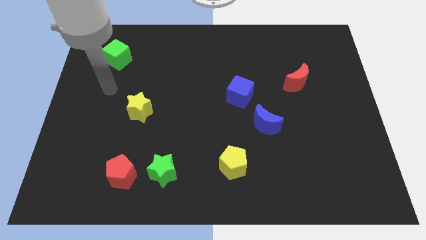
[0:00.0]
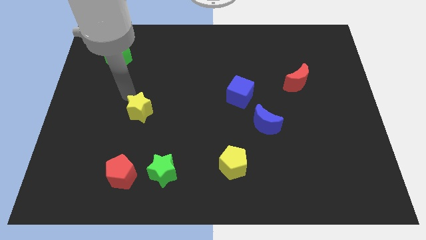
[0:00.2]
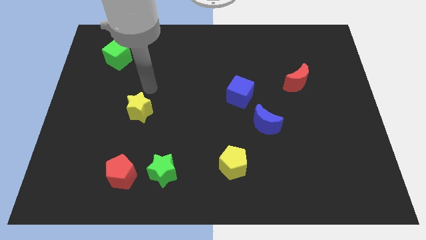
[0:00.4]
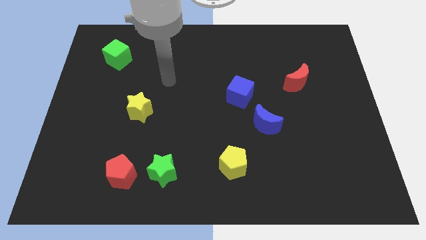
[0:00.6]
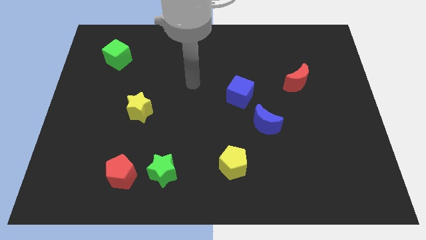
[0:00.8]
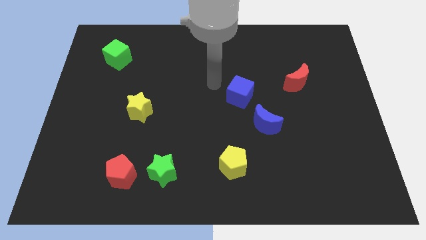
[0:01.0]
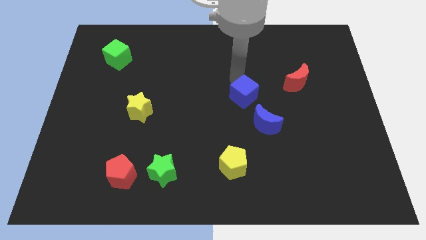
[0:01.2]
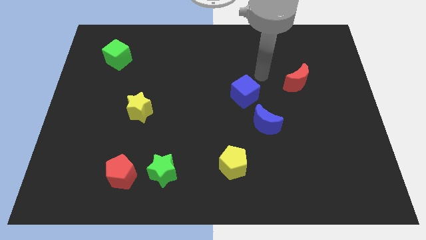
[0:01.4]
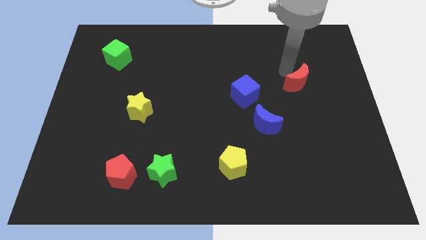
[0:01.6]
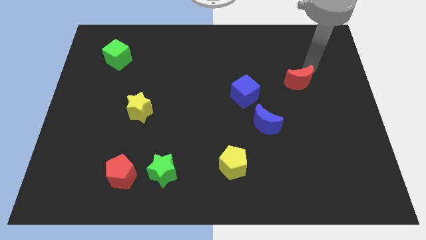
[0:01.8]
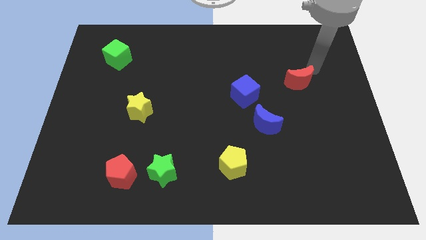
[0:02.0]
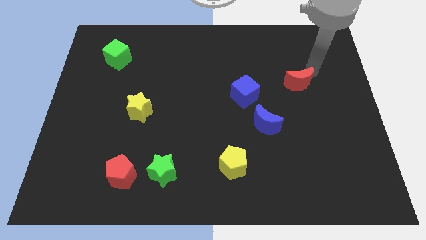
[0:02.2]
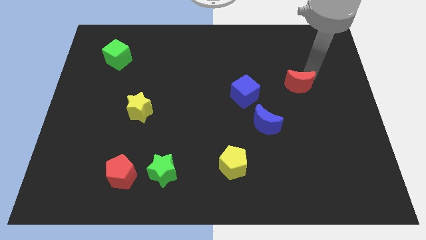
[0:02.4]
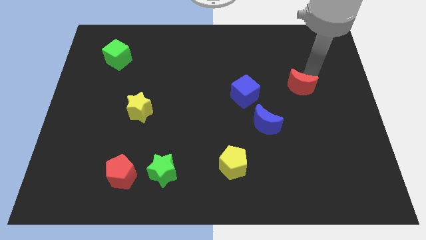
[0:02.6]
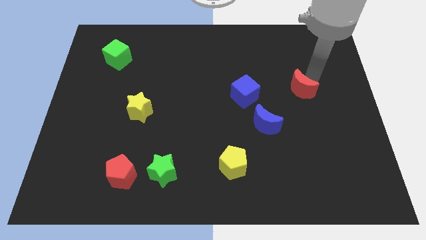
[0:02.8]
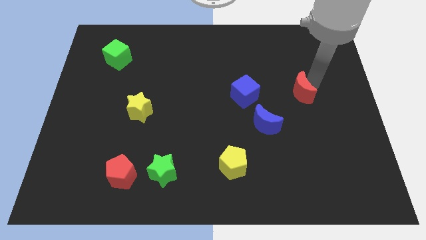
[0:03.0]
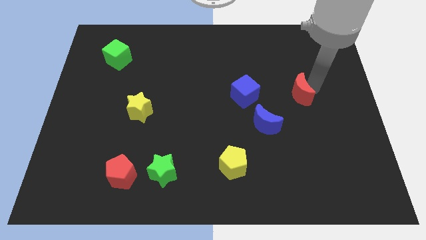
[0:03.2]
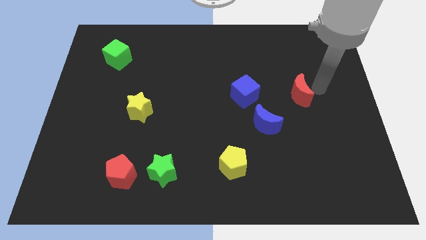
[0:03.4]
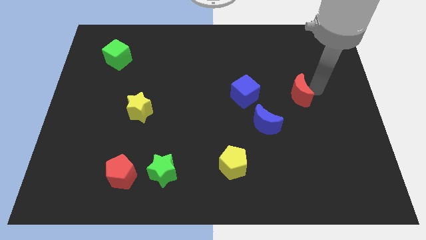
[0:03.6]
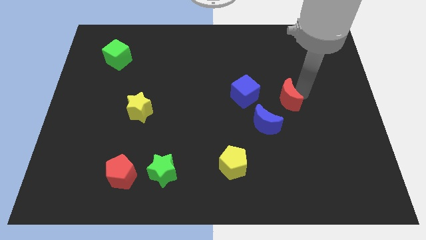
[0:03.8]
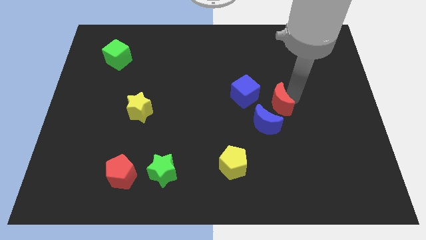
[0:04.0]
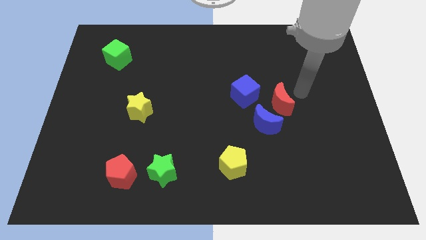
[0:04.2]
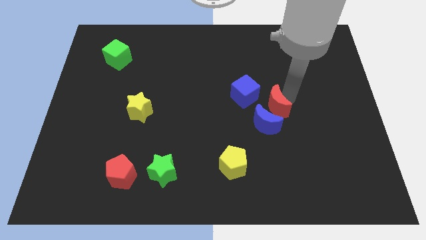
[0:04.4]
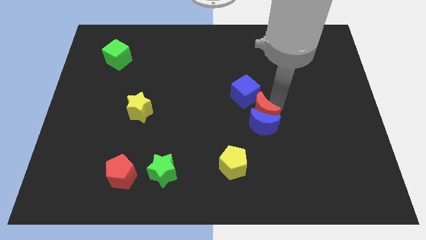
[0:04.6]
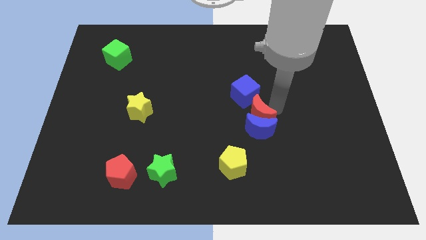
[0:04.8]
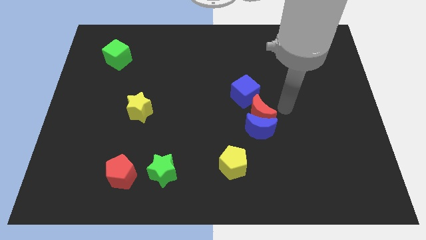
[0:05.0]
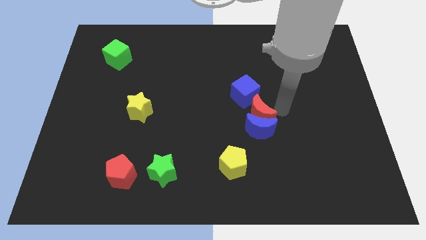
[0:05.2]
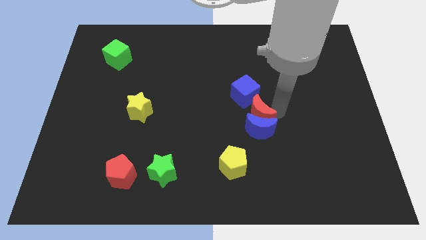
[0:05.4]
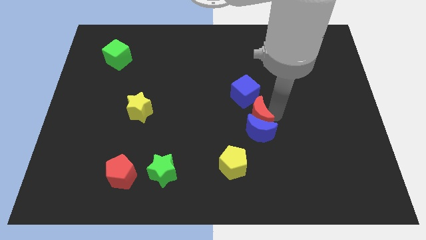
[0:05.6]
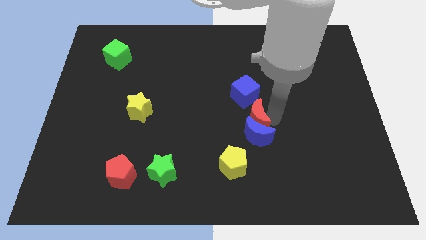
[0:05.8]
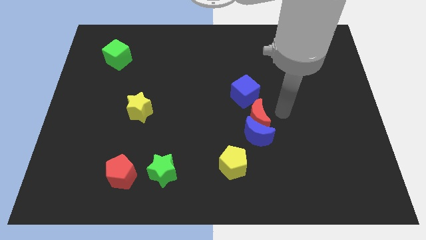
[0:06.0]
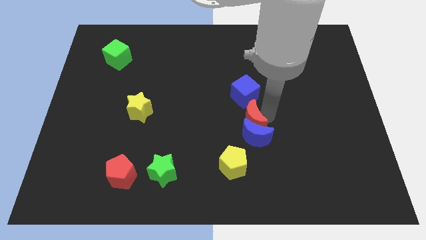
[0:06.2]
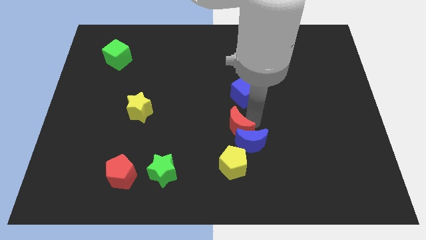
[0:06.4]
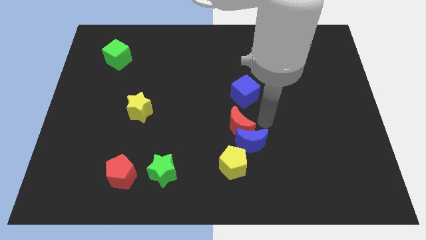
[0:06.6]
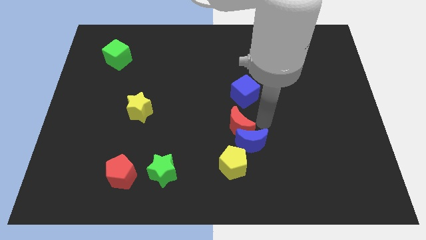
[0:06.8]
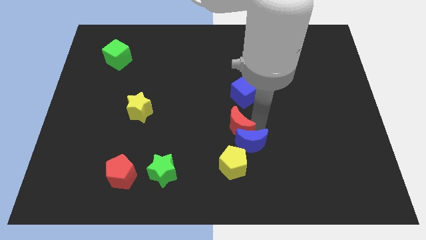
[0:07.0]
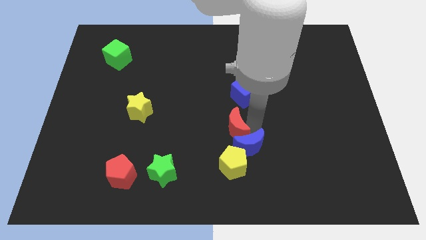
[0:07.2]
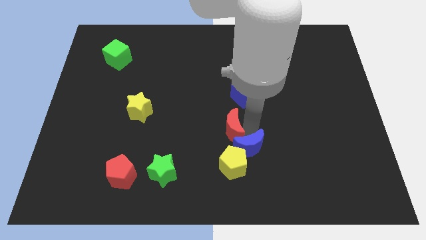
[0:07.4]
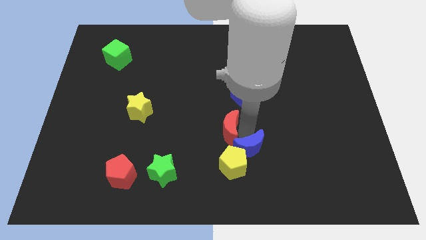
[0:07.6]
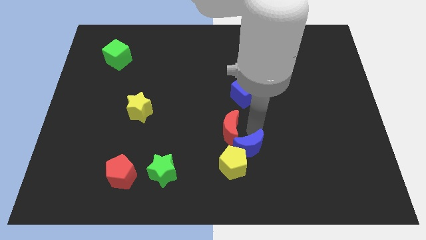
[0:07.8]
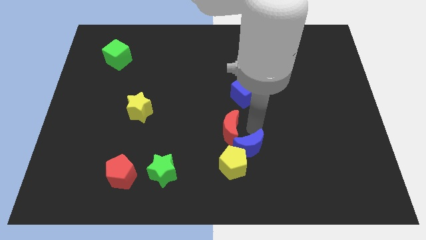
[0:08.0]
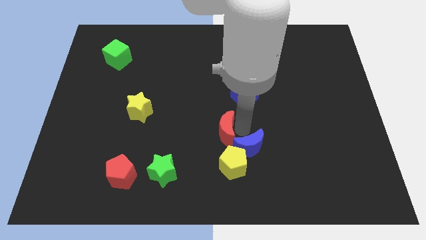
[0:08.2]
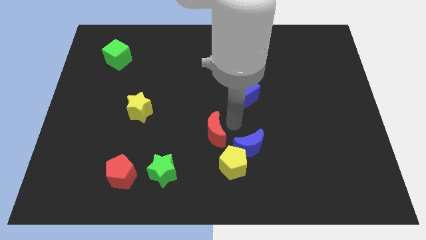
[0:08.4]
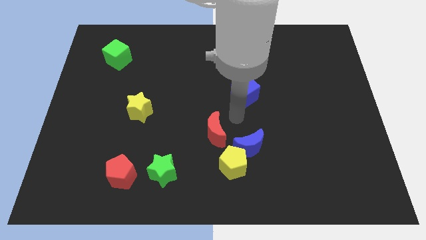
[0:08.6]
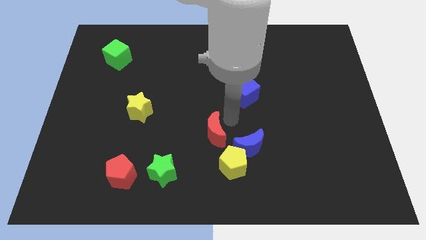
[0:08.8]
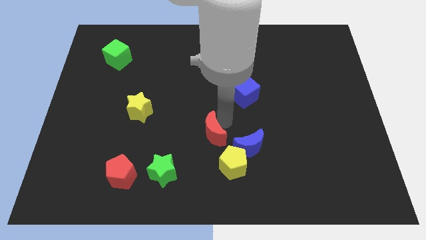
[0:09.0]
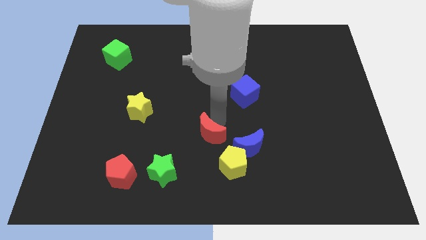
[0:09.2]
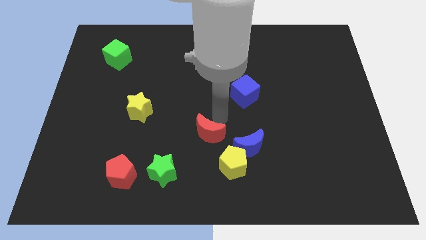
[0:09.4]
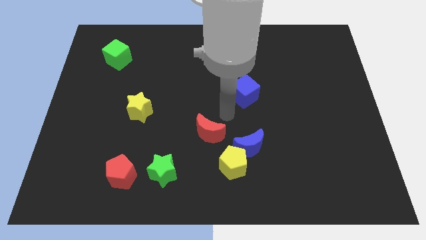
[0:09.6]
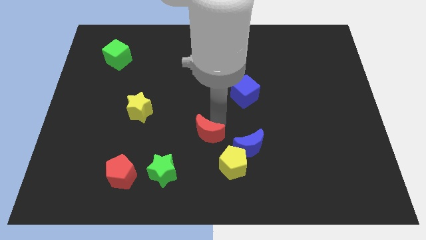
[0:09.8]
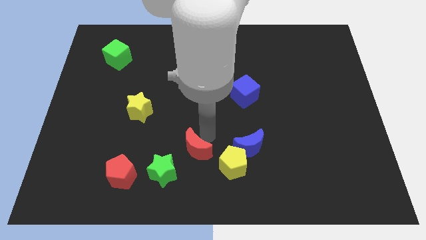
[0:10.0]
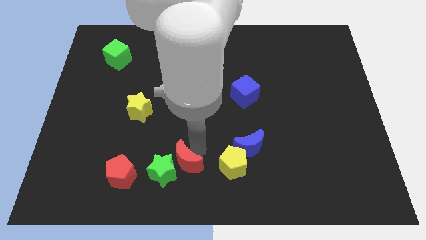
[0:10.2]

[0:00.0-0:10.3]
push the red moon close to the green star

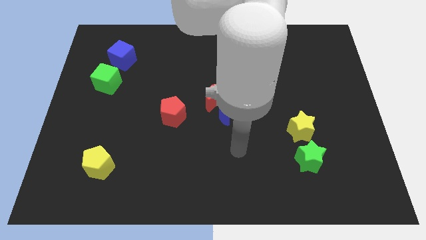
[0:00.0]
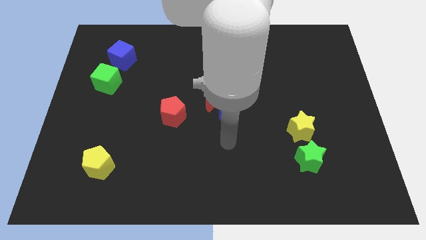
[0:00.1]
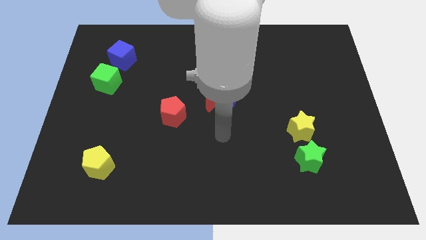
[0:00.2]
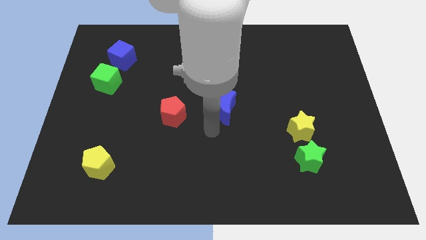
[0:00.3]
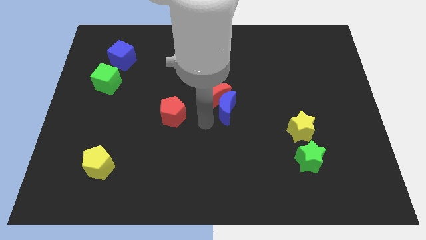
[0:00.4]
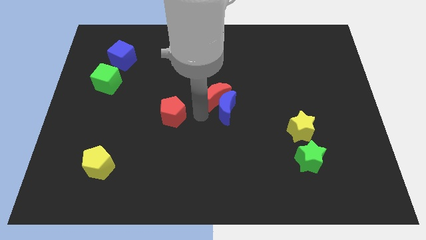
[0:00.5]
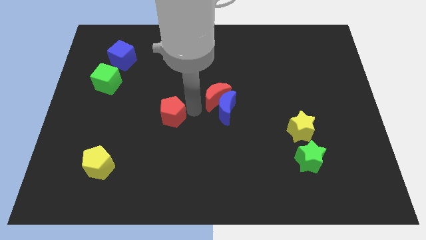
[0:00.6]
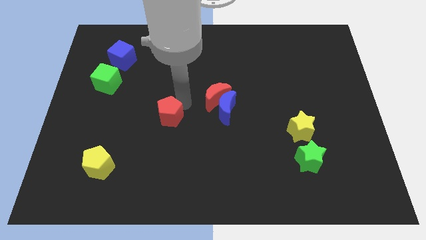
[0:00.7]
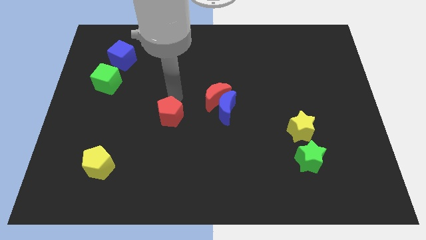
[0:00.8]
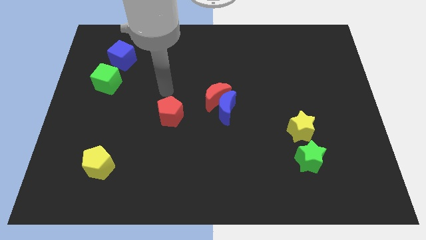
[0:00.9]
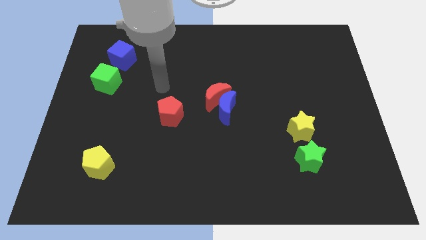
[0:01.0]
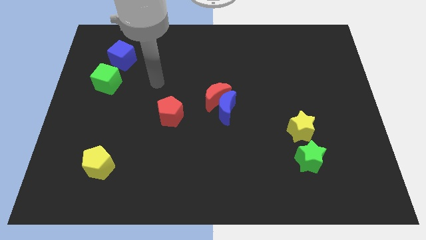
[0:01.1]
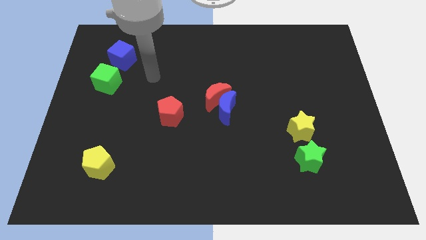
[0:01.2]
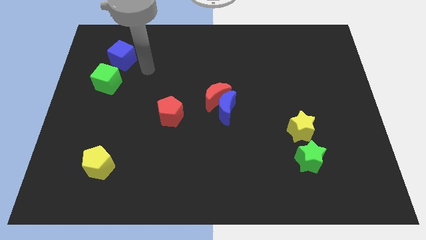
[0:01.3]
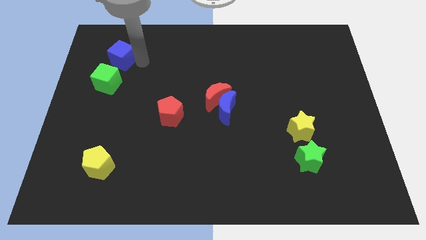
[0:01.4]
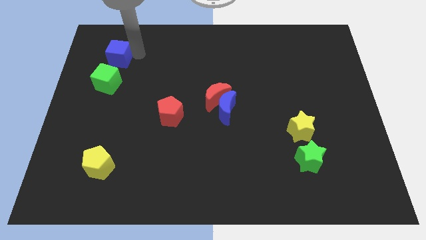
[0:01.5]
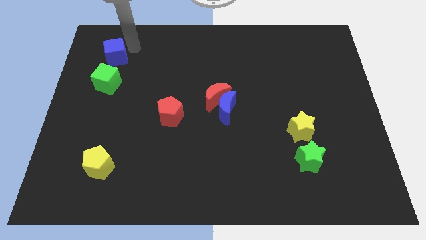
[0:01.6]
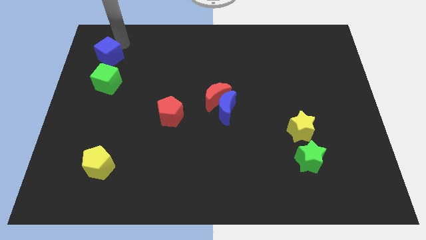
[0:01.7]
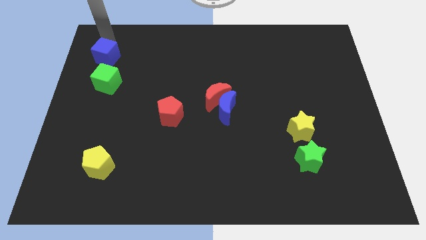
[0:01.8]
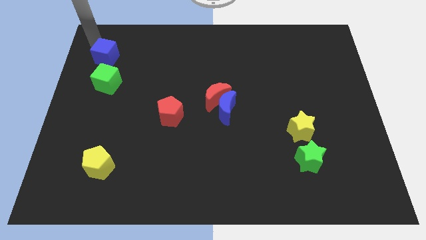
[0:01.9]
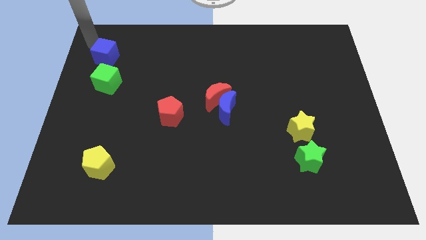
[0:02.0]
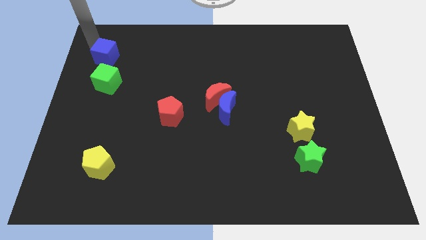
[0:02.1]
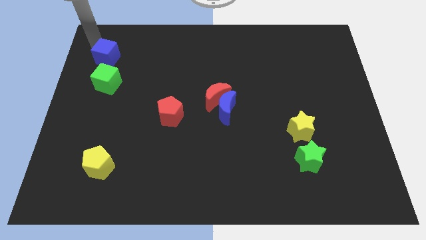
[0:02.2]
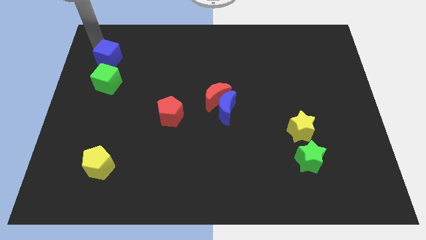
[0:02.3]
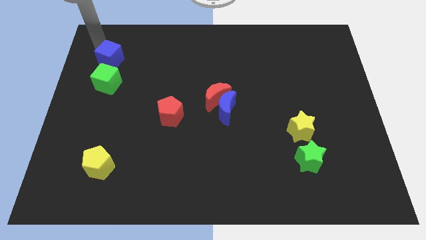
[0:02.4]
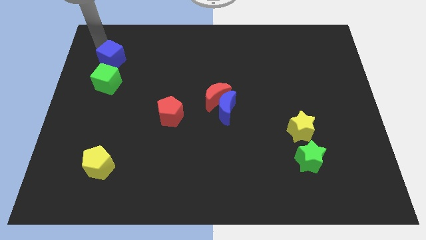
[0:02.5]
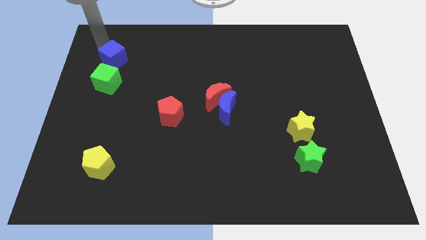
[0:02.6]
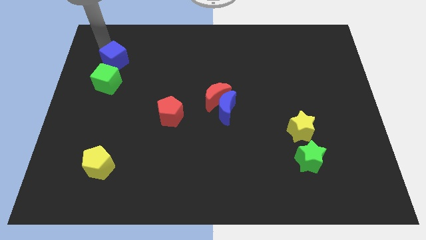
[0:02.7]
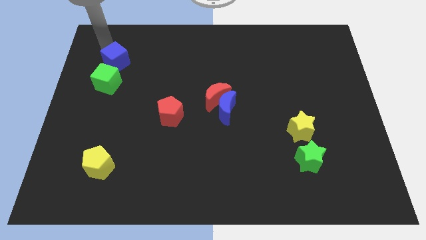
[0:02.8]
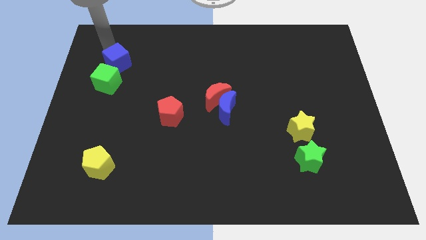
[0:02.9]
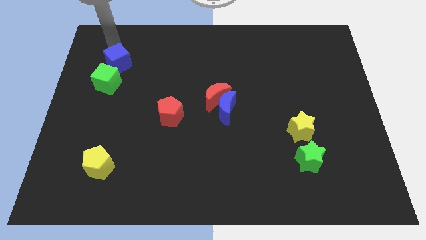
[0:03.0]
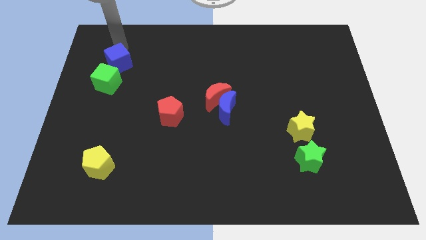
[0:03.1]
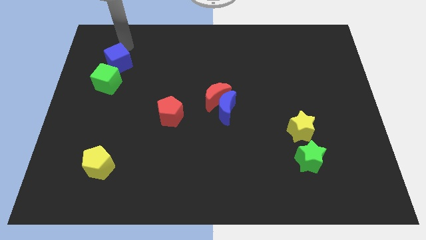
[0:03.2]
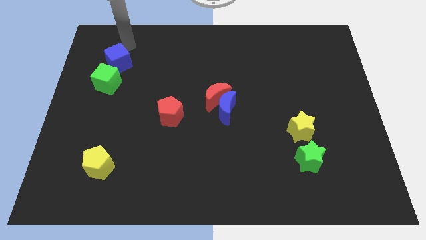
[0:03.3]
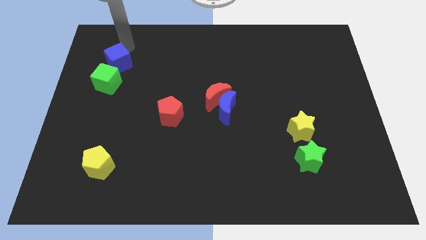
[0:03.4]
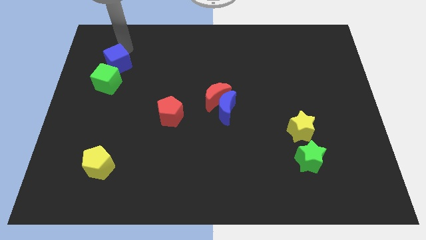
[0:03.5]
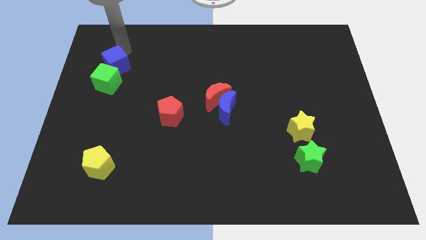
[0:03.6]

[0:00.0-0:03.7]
move the blue cube close to the green cube
